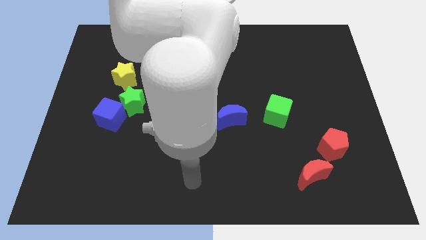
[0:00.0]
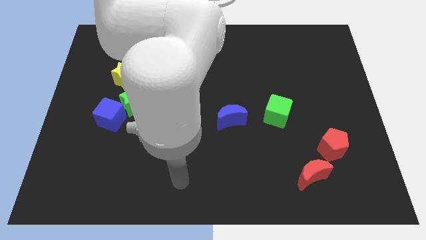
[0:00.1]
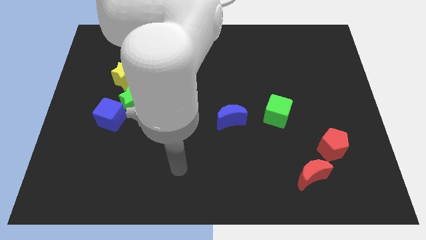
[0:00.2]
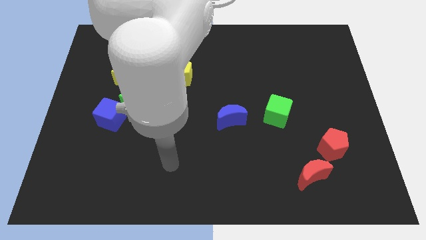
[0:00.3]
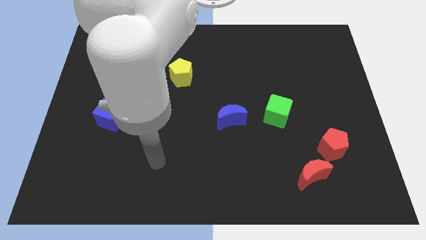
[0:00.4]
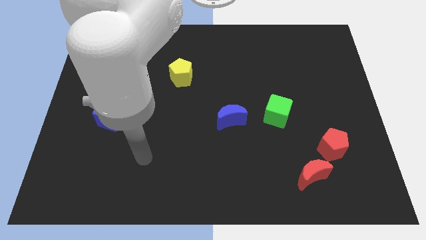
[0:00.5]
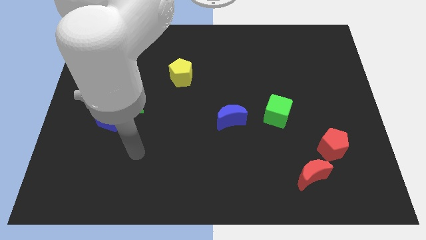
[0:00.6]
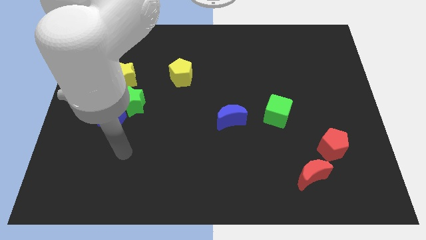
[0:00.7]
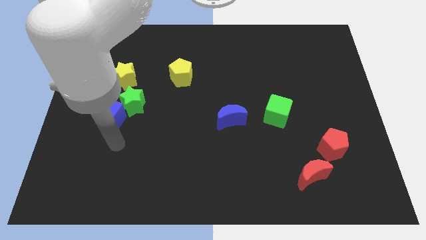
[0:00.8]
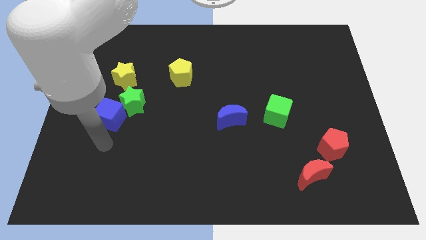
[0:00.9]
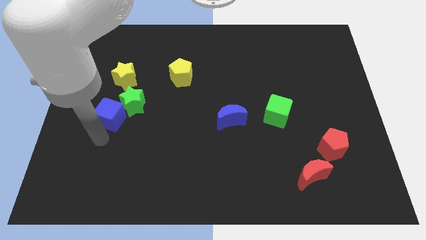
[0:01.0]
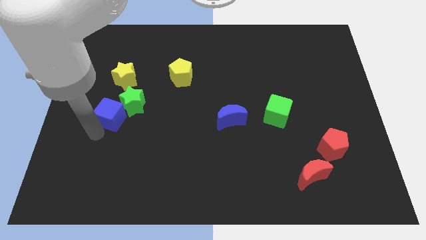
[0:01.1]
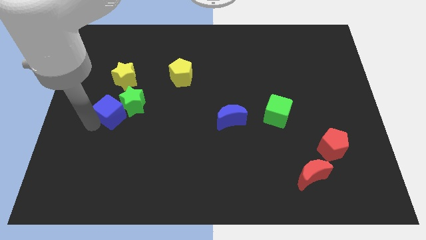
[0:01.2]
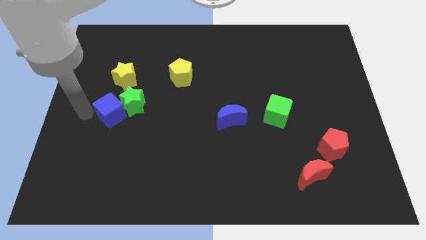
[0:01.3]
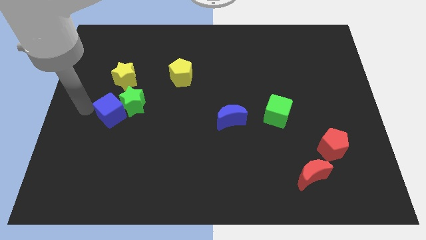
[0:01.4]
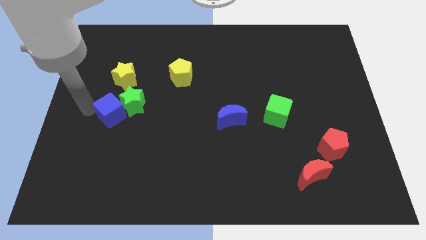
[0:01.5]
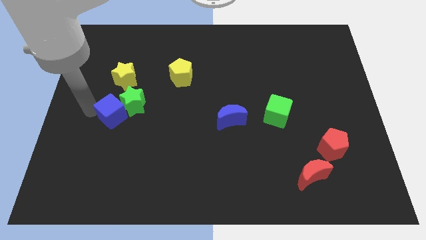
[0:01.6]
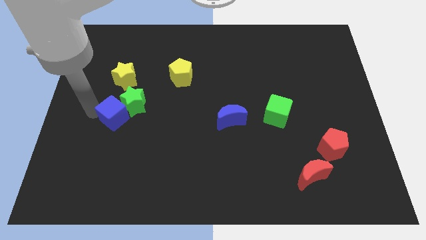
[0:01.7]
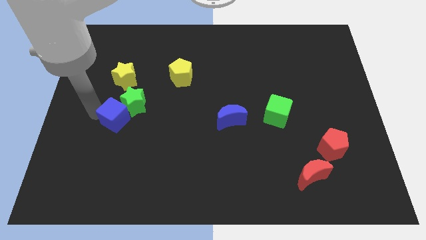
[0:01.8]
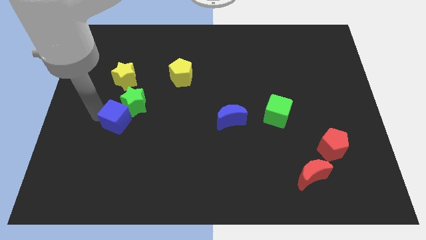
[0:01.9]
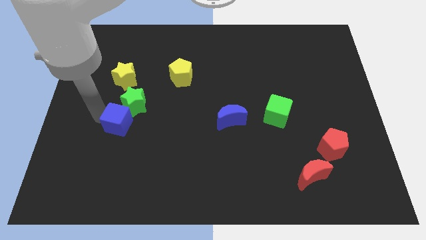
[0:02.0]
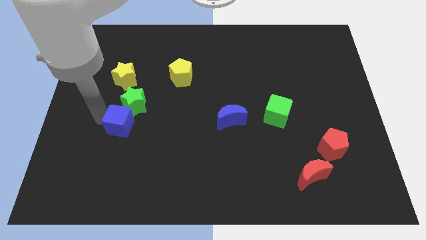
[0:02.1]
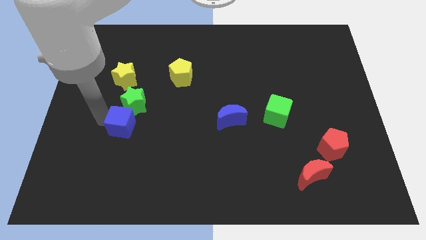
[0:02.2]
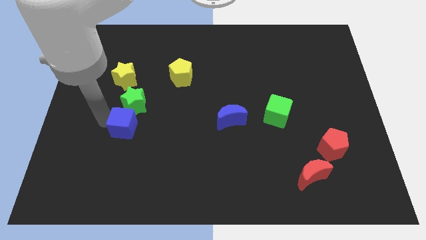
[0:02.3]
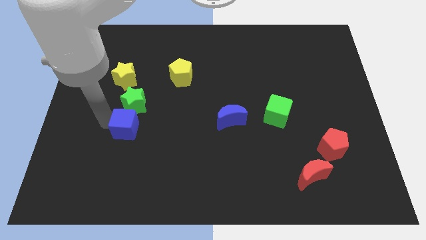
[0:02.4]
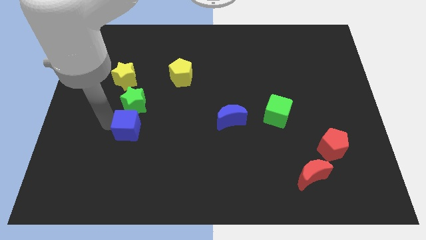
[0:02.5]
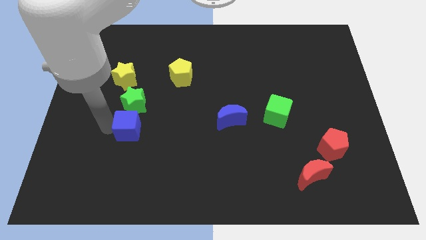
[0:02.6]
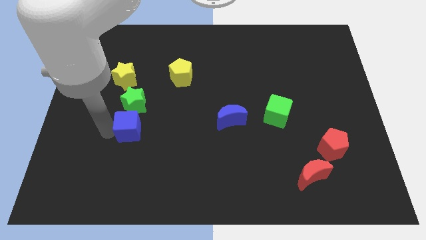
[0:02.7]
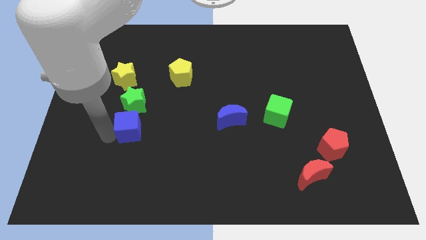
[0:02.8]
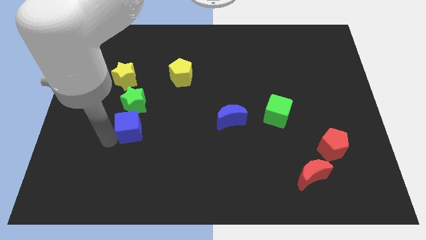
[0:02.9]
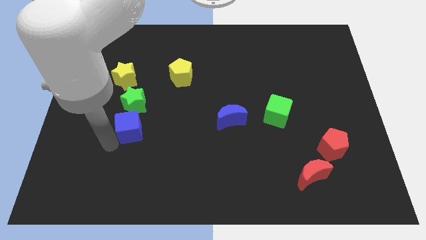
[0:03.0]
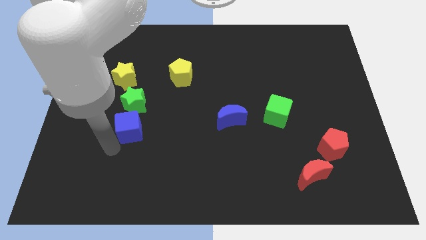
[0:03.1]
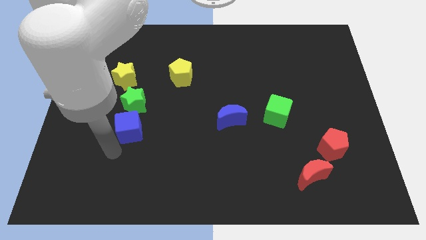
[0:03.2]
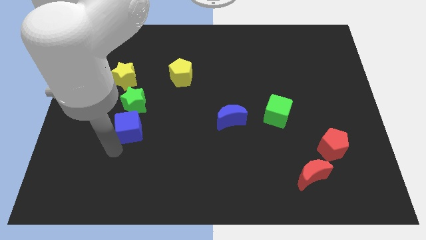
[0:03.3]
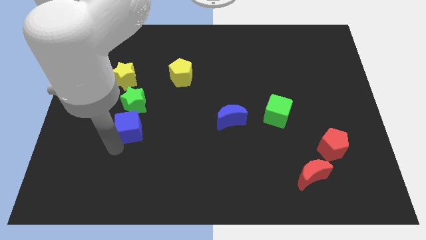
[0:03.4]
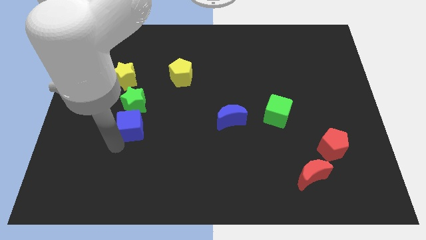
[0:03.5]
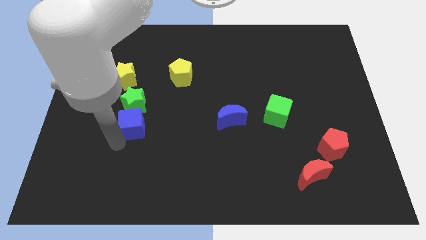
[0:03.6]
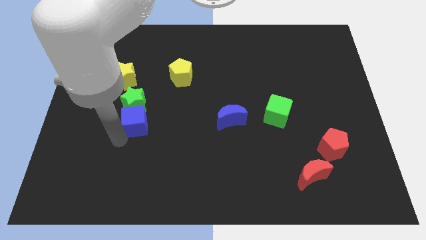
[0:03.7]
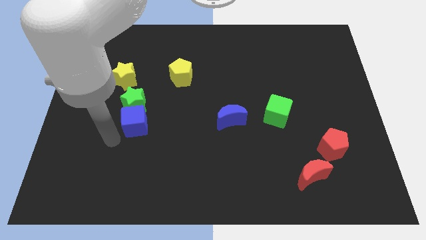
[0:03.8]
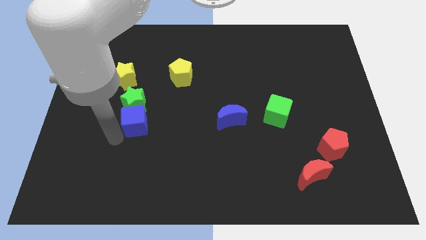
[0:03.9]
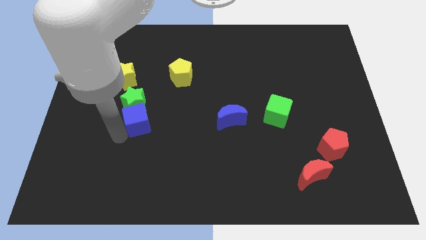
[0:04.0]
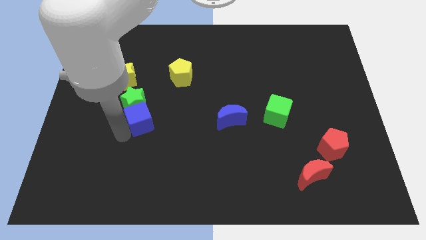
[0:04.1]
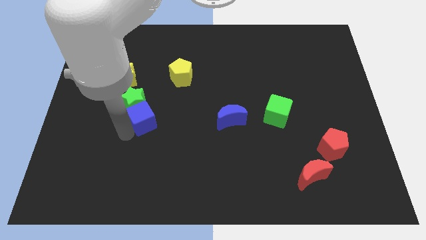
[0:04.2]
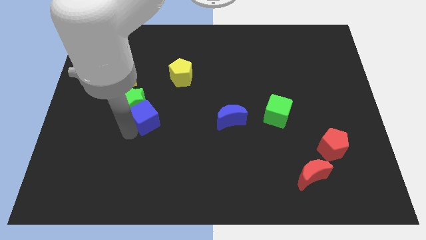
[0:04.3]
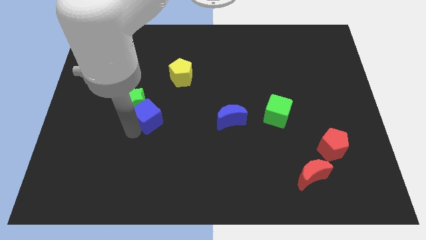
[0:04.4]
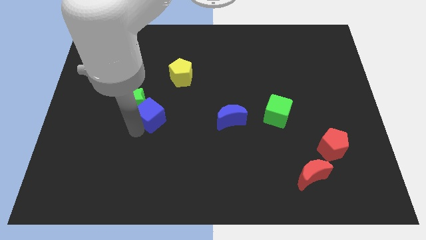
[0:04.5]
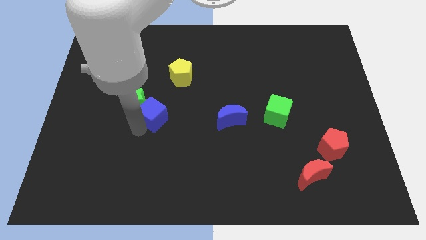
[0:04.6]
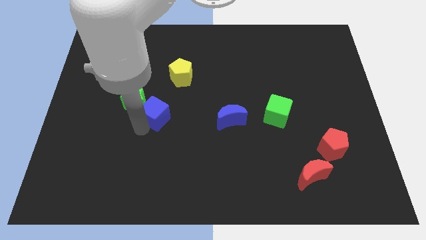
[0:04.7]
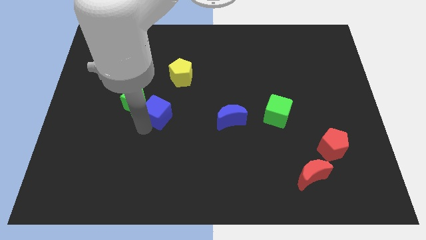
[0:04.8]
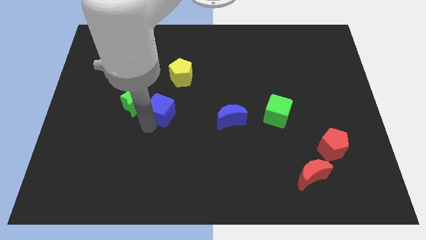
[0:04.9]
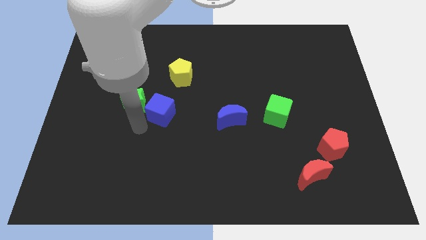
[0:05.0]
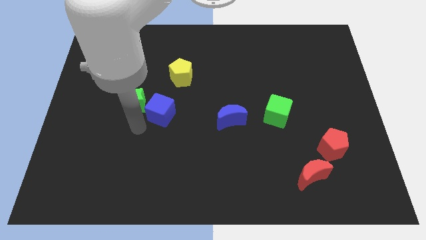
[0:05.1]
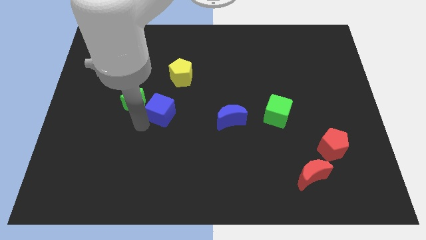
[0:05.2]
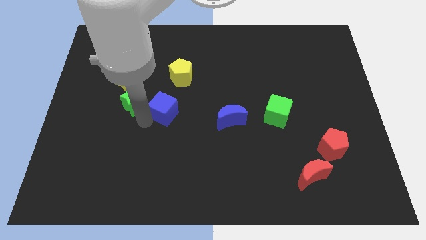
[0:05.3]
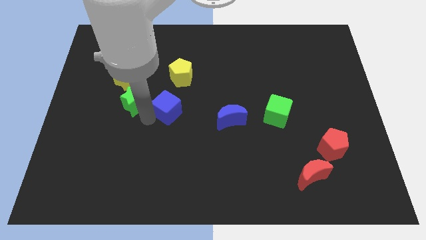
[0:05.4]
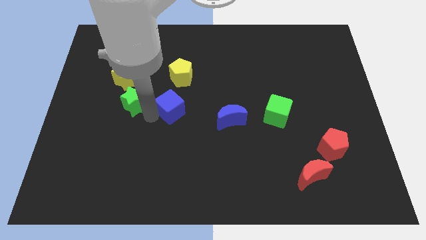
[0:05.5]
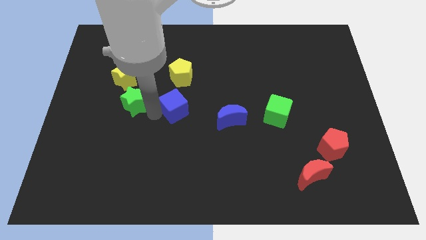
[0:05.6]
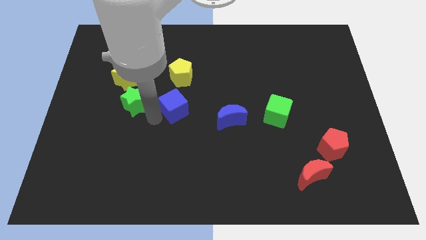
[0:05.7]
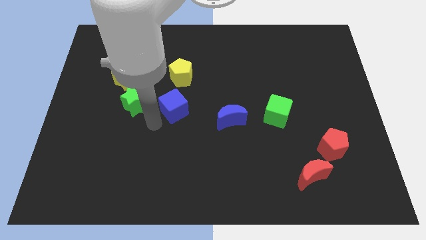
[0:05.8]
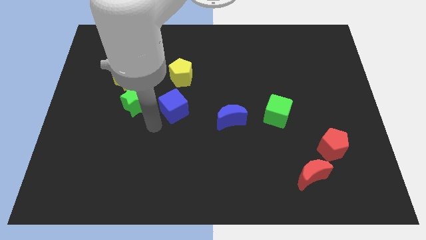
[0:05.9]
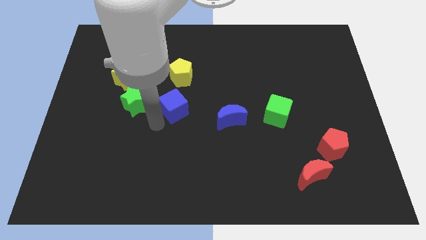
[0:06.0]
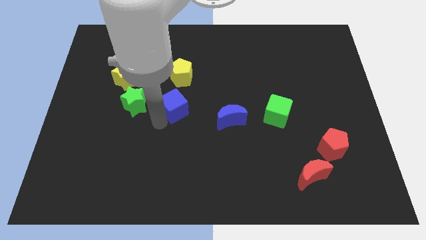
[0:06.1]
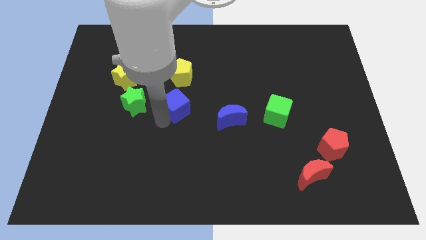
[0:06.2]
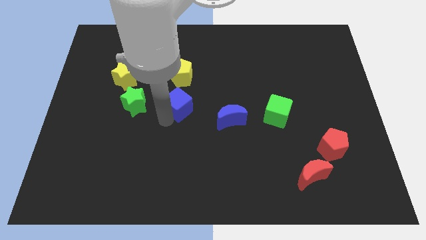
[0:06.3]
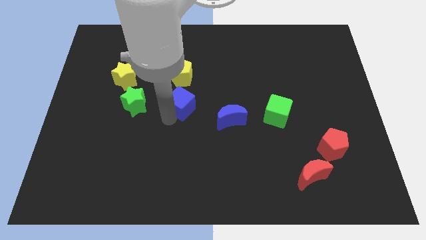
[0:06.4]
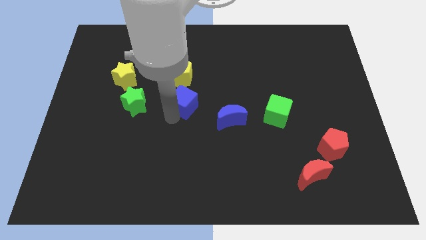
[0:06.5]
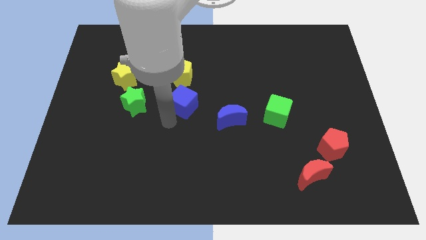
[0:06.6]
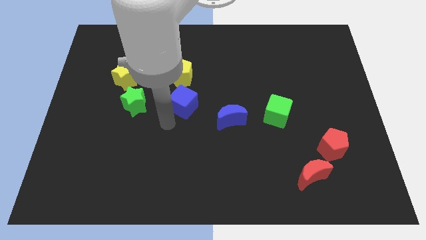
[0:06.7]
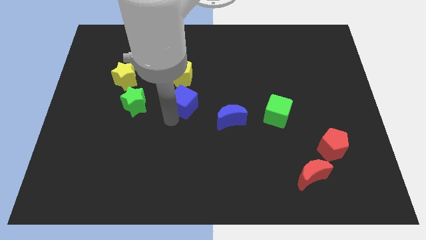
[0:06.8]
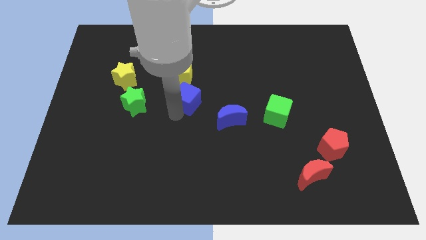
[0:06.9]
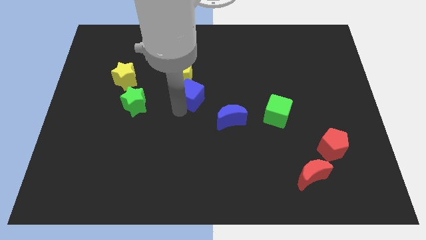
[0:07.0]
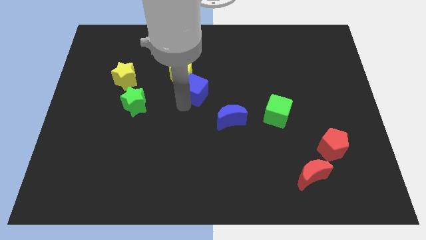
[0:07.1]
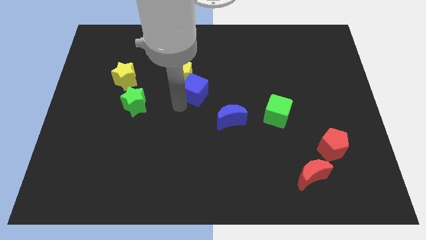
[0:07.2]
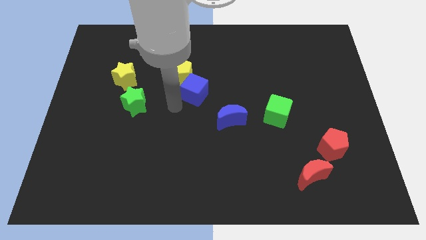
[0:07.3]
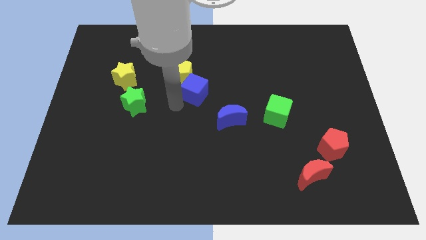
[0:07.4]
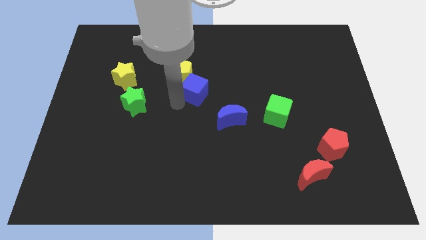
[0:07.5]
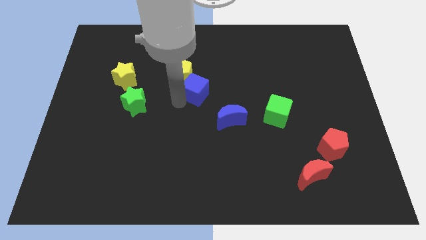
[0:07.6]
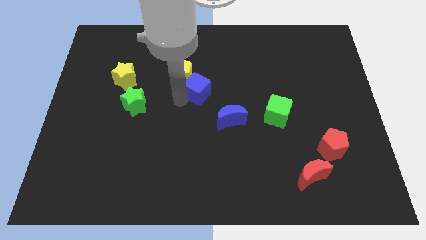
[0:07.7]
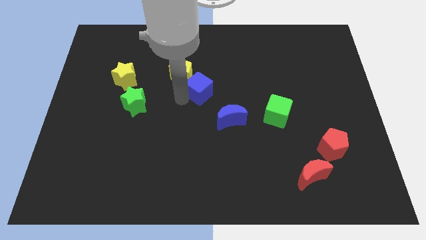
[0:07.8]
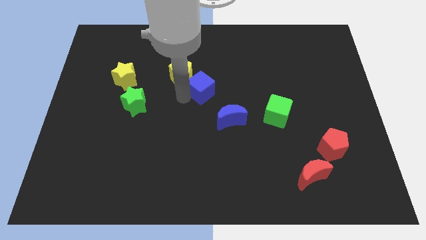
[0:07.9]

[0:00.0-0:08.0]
push the blue cube to the right of the yellow pentagon
